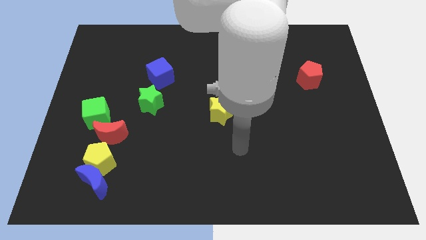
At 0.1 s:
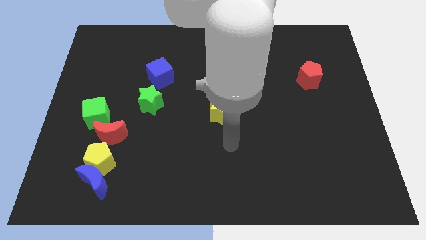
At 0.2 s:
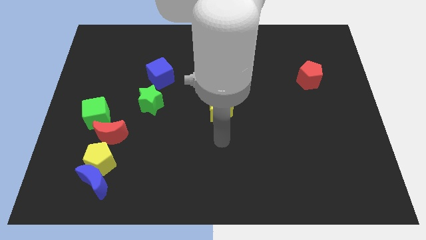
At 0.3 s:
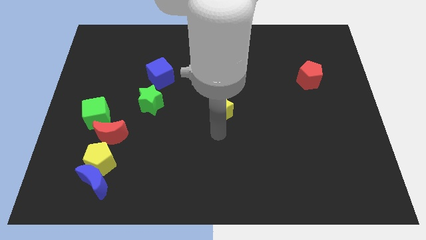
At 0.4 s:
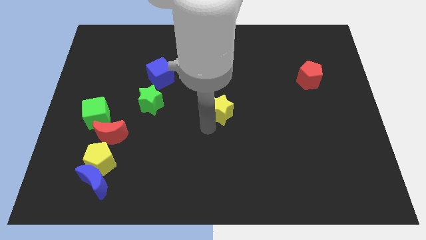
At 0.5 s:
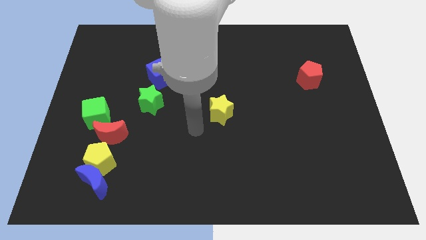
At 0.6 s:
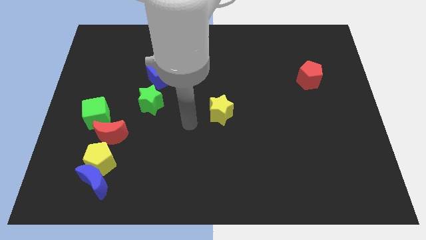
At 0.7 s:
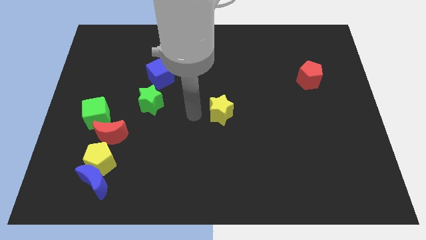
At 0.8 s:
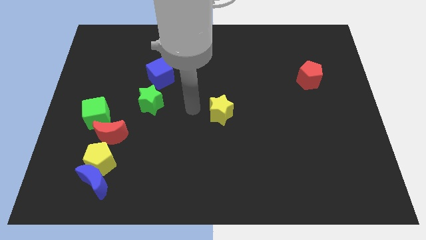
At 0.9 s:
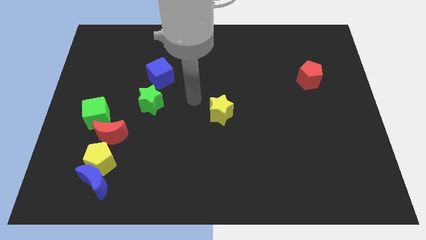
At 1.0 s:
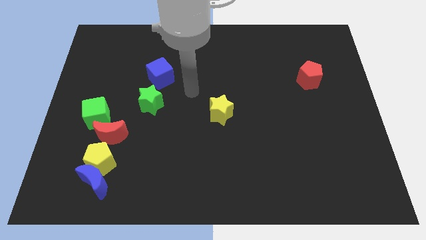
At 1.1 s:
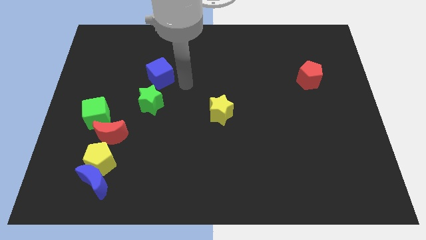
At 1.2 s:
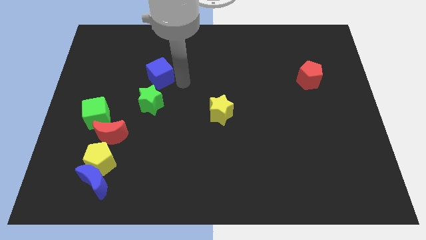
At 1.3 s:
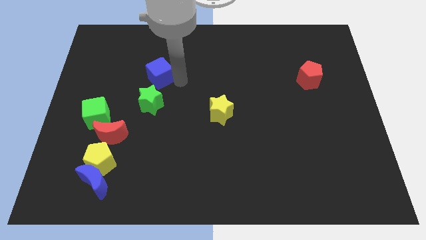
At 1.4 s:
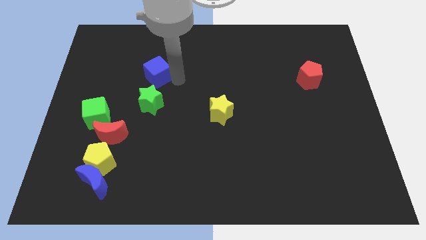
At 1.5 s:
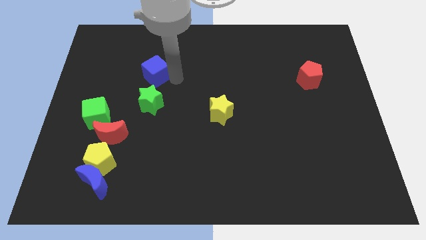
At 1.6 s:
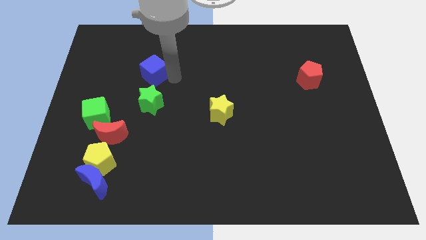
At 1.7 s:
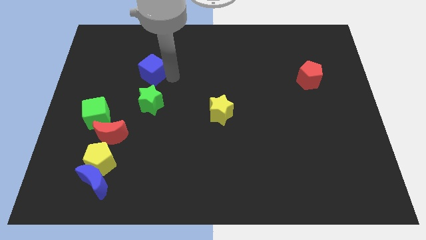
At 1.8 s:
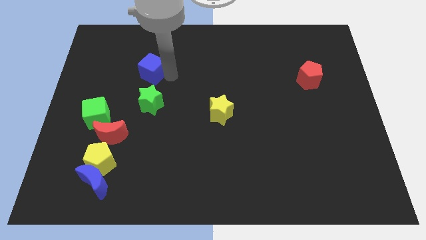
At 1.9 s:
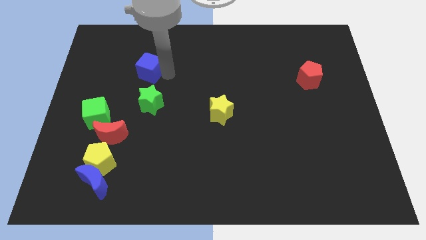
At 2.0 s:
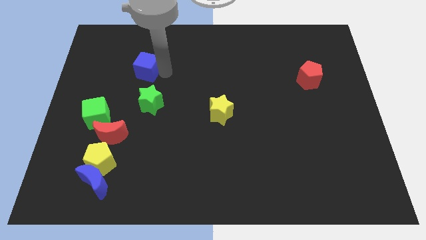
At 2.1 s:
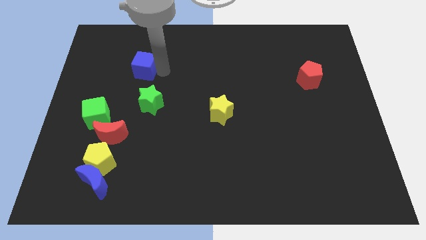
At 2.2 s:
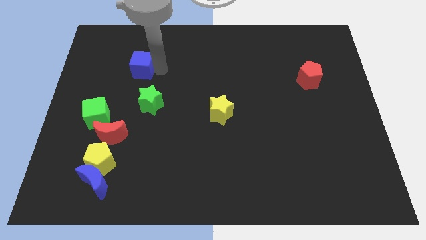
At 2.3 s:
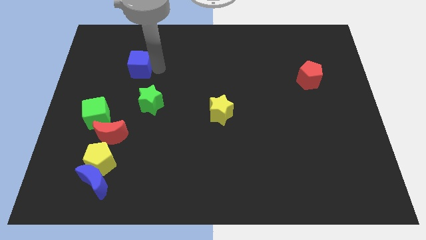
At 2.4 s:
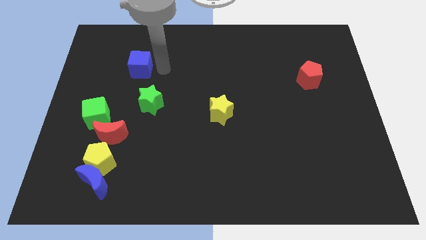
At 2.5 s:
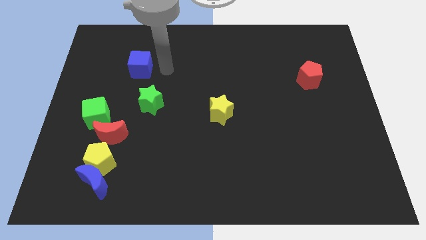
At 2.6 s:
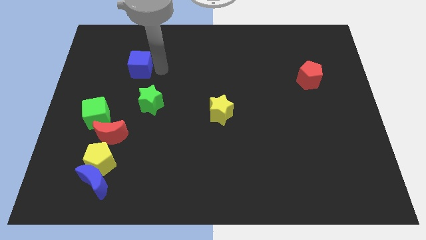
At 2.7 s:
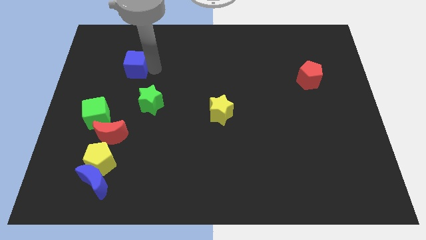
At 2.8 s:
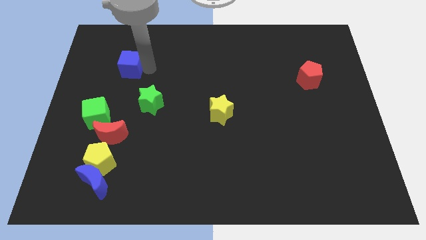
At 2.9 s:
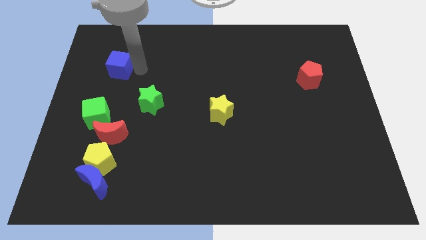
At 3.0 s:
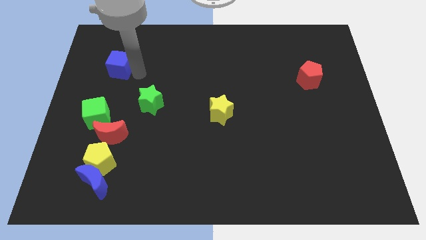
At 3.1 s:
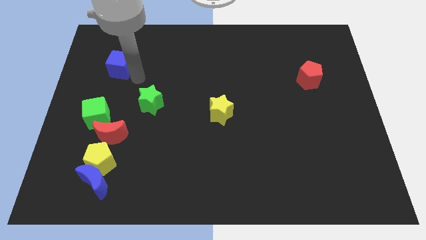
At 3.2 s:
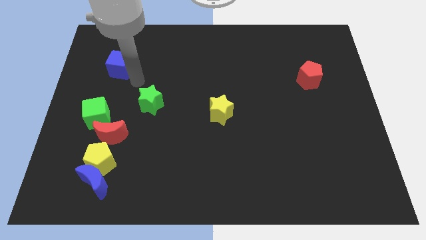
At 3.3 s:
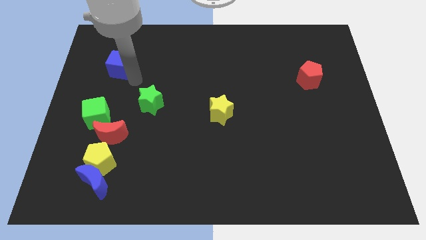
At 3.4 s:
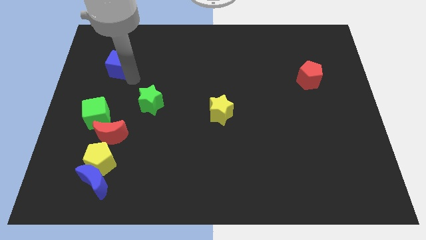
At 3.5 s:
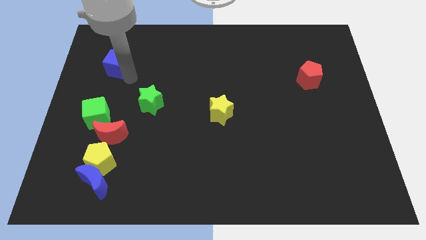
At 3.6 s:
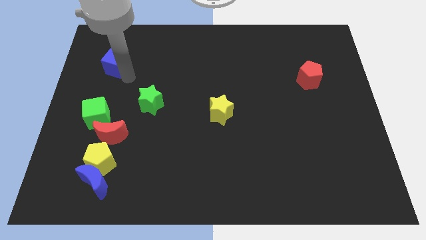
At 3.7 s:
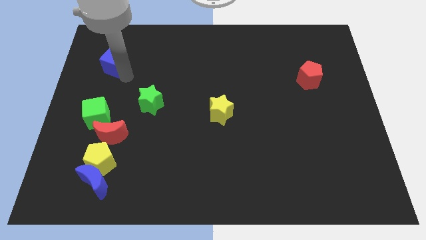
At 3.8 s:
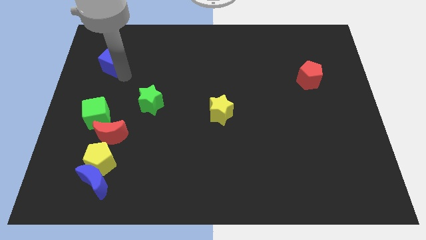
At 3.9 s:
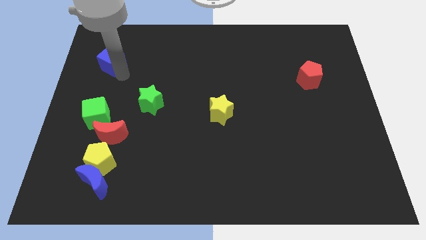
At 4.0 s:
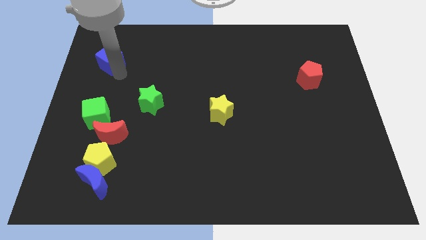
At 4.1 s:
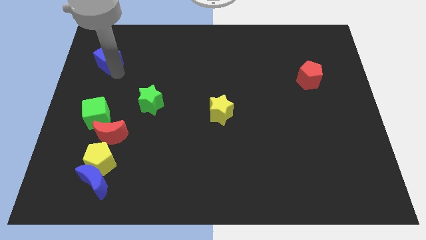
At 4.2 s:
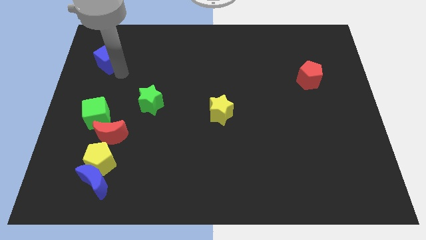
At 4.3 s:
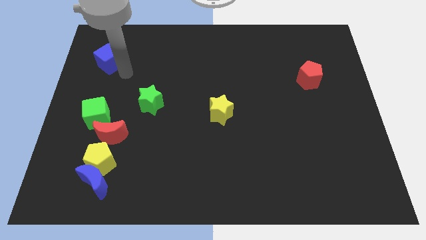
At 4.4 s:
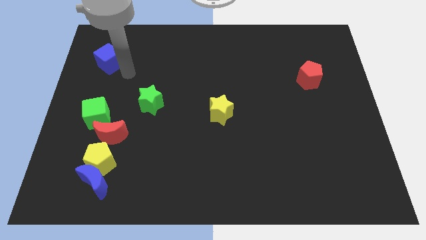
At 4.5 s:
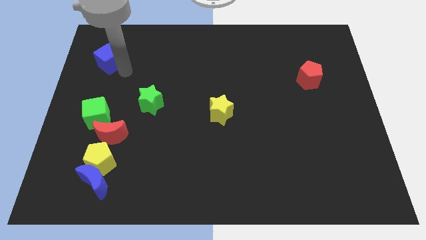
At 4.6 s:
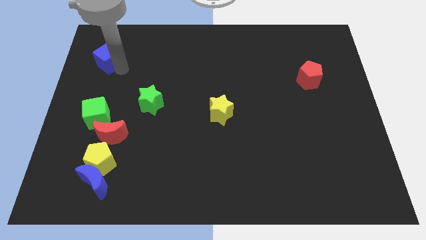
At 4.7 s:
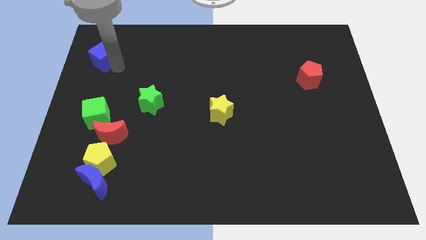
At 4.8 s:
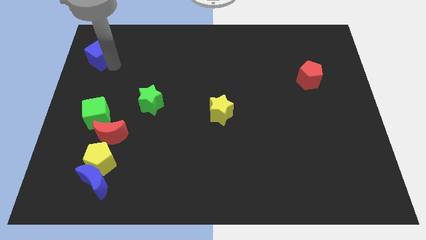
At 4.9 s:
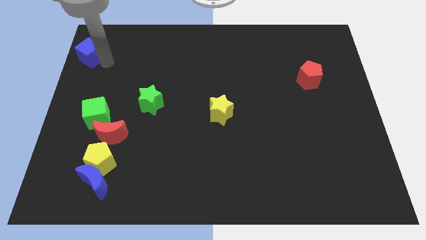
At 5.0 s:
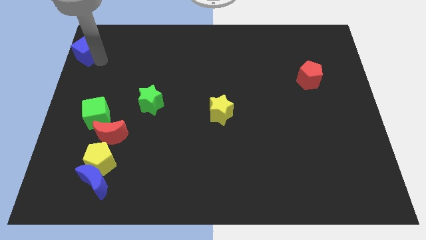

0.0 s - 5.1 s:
put the blue cube to the top left
